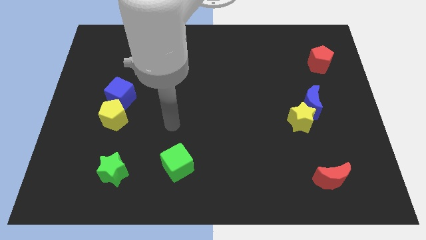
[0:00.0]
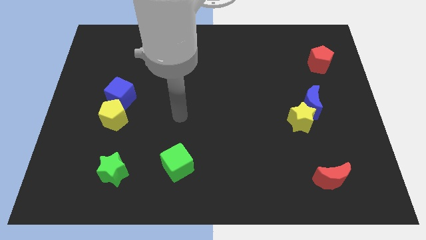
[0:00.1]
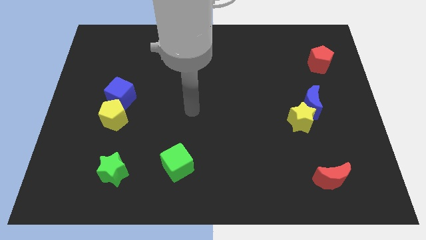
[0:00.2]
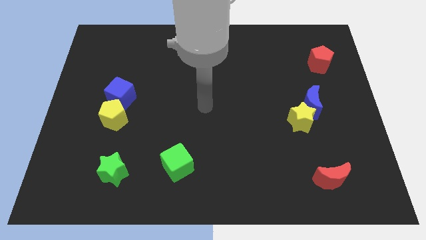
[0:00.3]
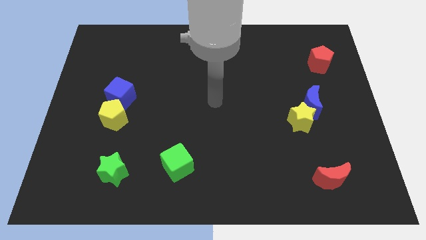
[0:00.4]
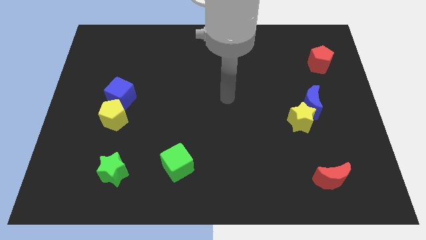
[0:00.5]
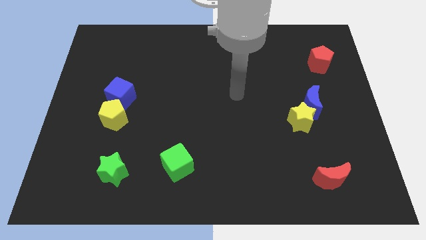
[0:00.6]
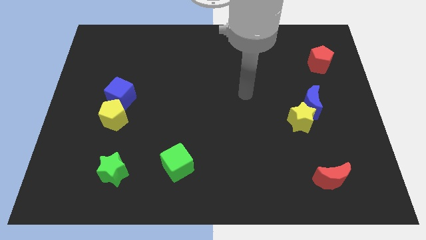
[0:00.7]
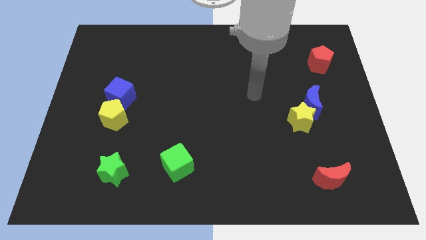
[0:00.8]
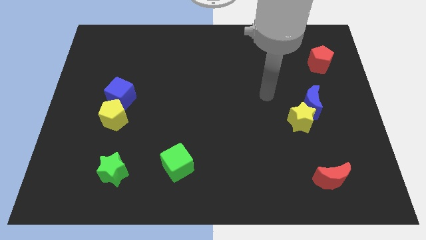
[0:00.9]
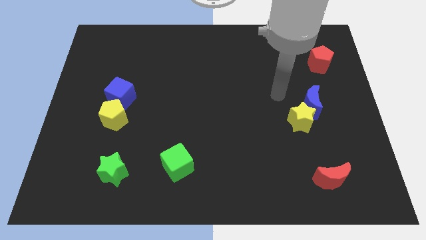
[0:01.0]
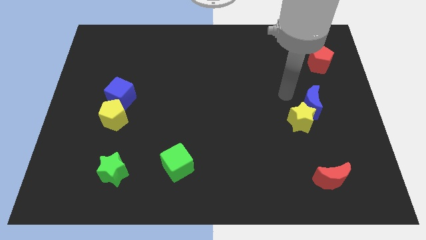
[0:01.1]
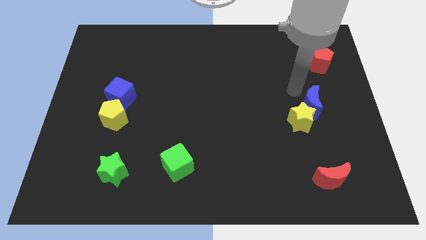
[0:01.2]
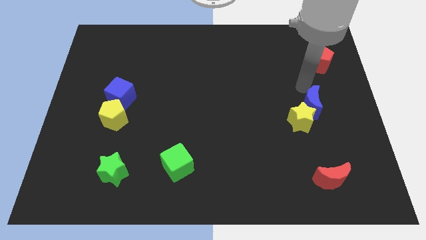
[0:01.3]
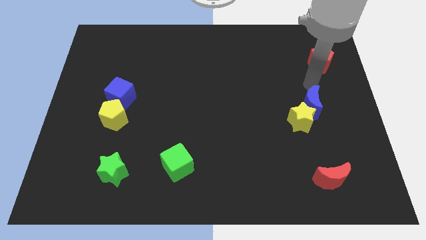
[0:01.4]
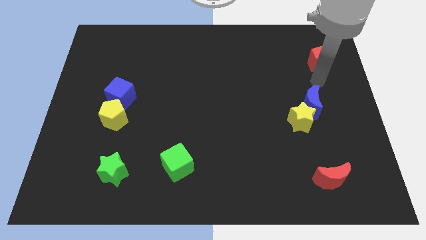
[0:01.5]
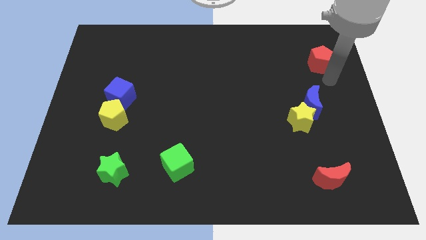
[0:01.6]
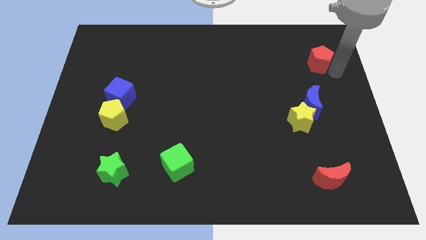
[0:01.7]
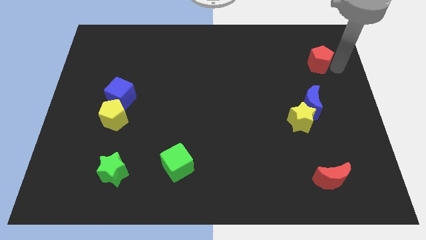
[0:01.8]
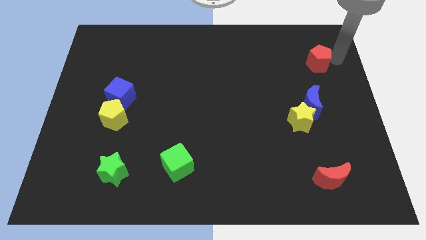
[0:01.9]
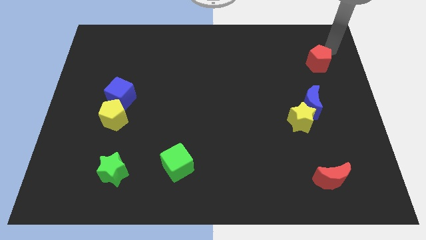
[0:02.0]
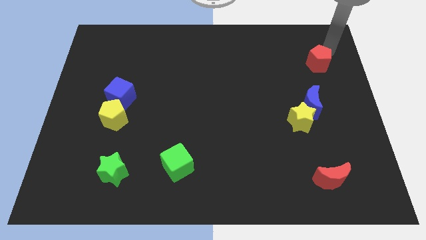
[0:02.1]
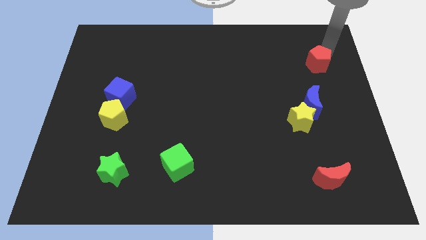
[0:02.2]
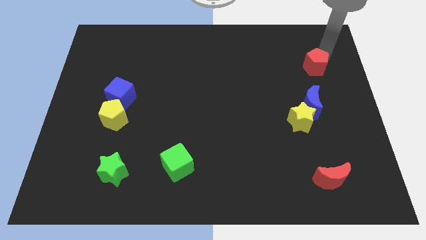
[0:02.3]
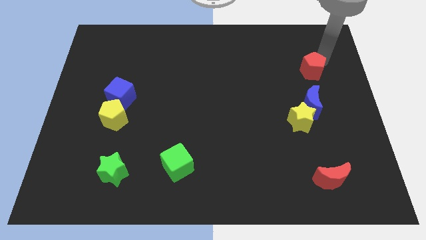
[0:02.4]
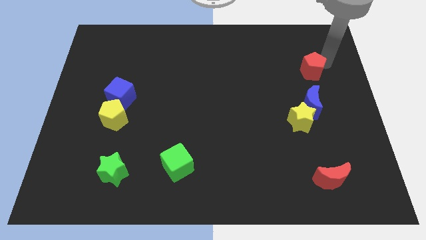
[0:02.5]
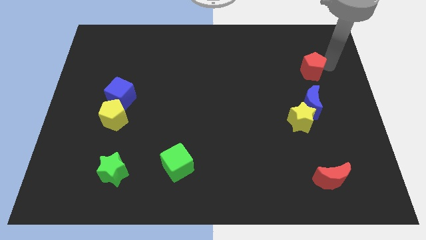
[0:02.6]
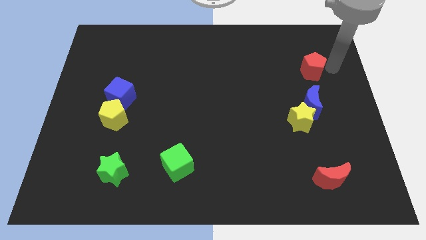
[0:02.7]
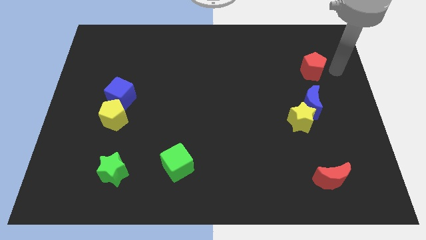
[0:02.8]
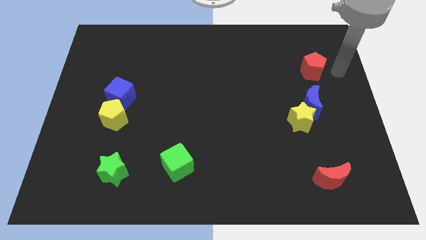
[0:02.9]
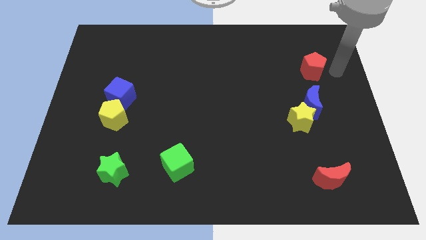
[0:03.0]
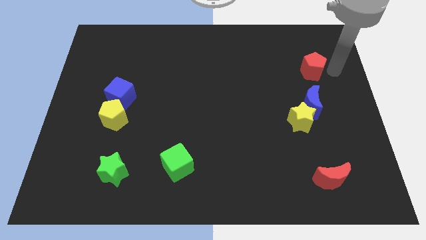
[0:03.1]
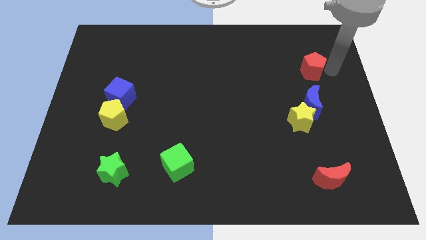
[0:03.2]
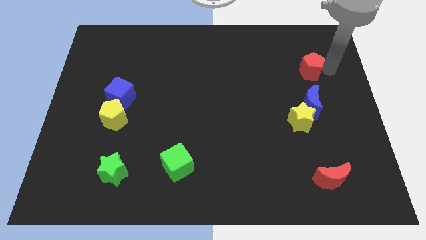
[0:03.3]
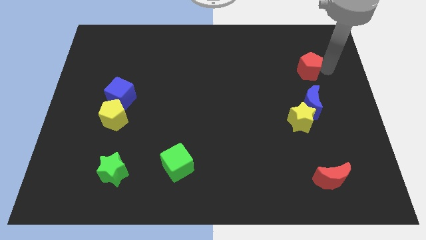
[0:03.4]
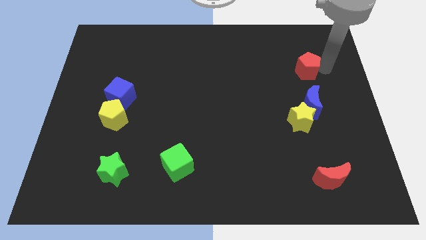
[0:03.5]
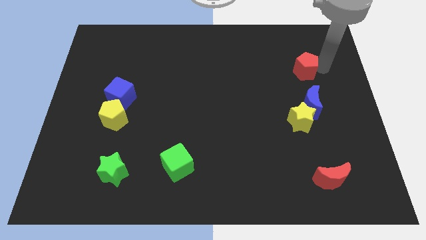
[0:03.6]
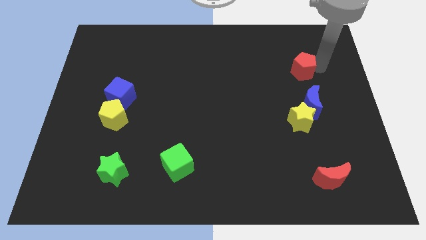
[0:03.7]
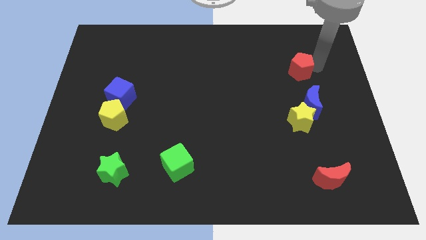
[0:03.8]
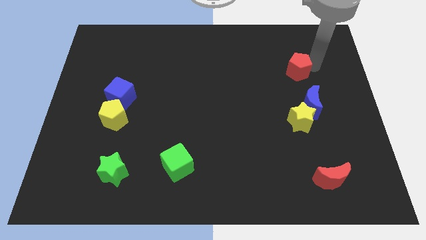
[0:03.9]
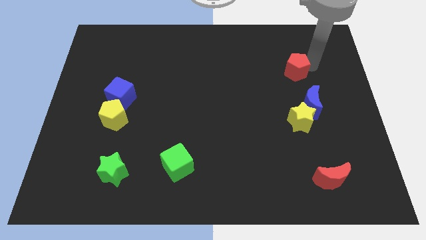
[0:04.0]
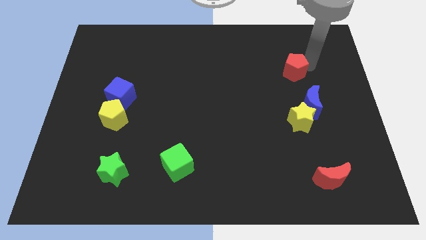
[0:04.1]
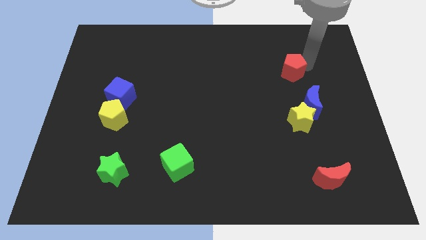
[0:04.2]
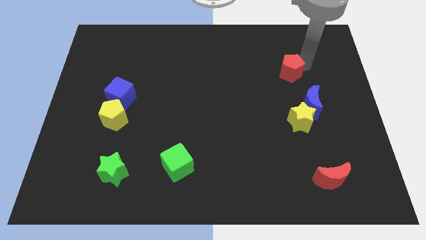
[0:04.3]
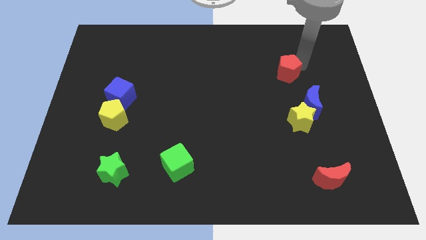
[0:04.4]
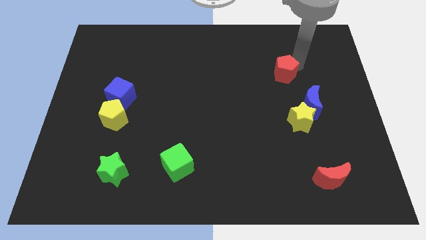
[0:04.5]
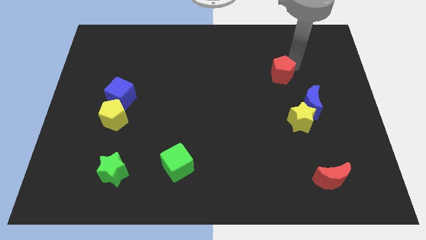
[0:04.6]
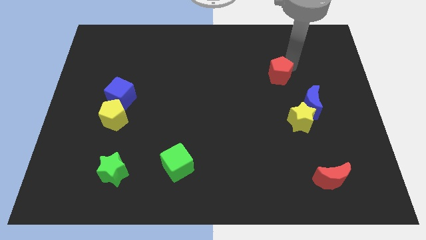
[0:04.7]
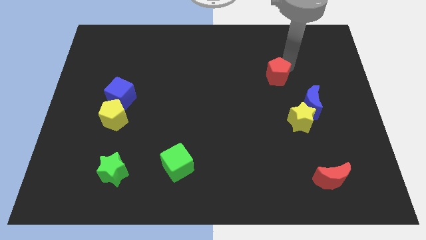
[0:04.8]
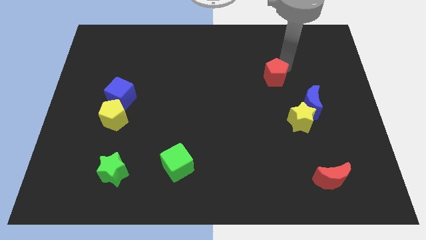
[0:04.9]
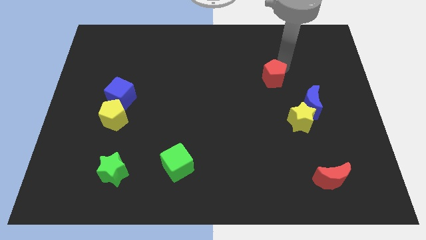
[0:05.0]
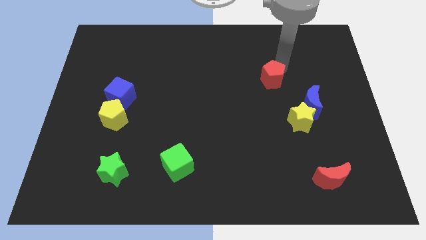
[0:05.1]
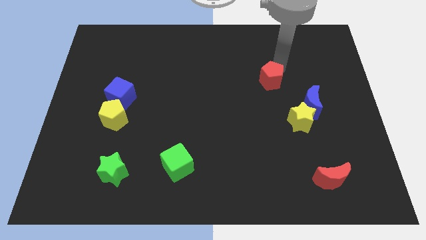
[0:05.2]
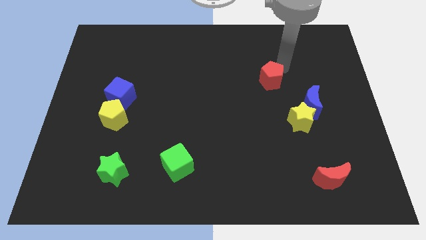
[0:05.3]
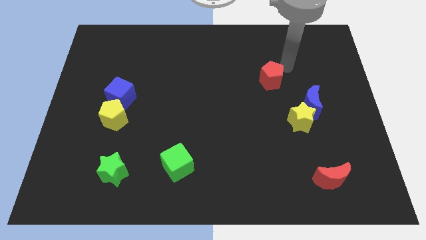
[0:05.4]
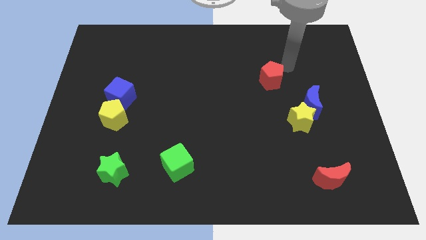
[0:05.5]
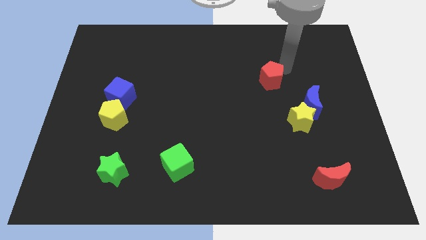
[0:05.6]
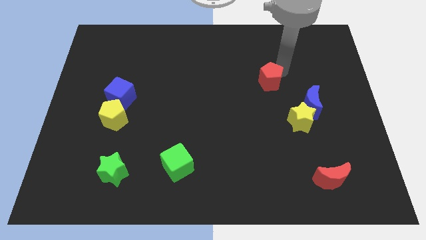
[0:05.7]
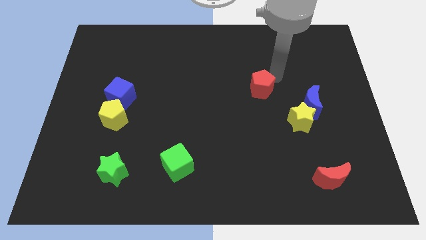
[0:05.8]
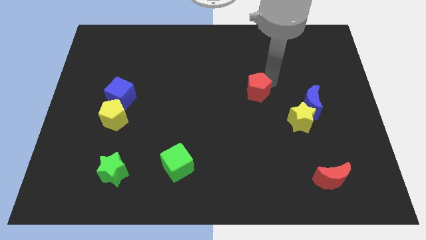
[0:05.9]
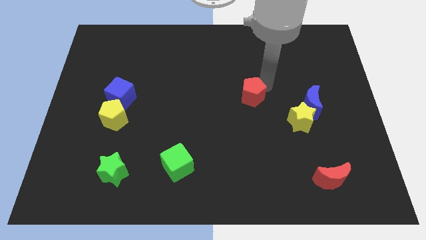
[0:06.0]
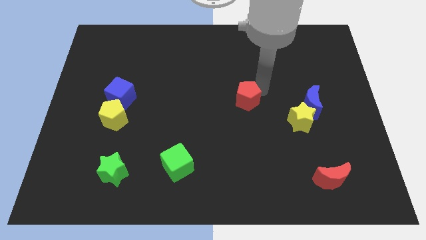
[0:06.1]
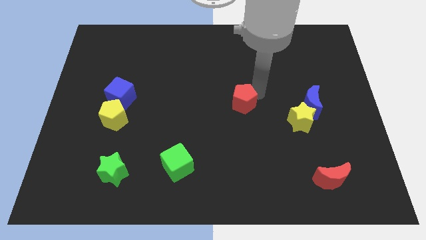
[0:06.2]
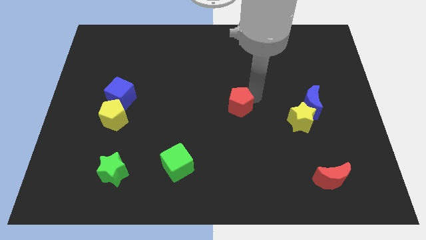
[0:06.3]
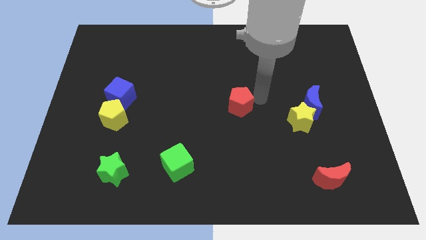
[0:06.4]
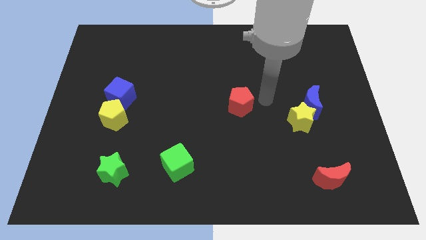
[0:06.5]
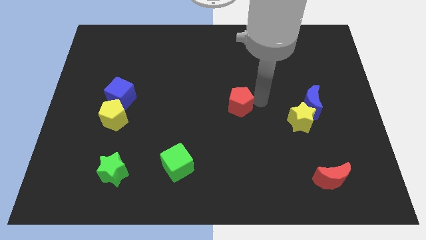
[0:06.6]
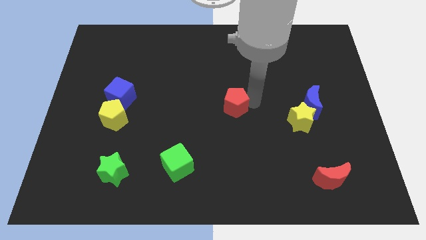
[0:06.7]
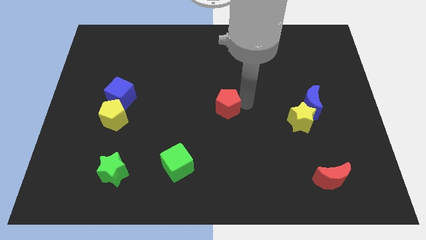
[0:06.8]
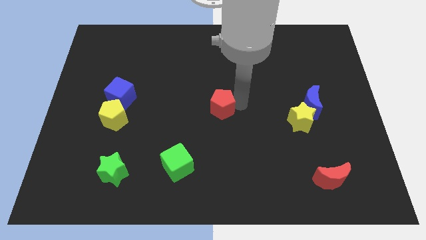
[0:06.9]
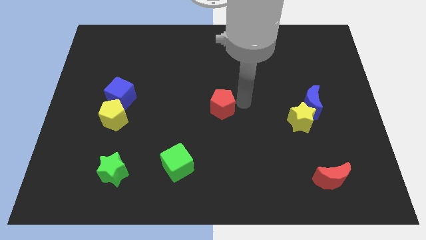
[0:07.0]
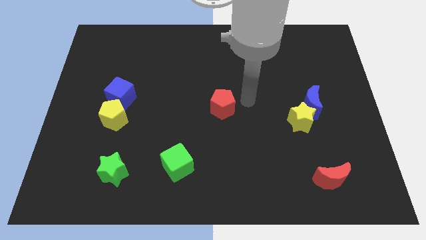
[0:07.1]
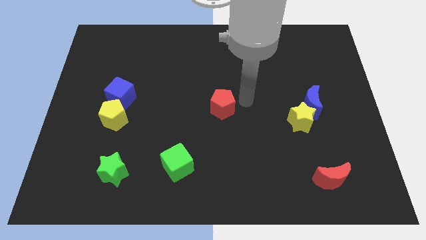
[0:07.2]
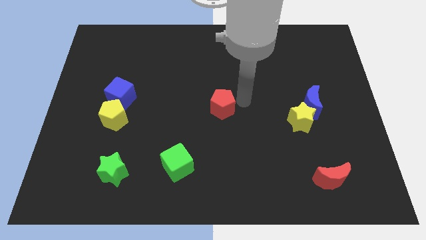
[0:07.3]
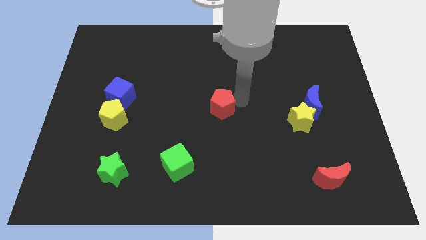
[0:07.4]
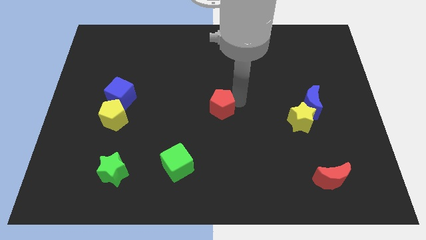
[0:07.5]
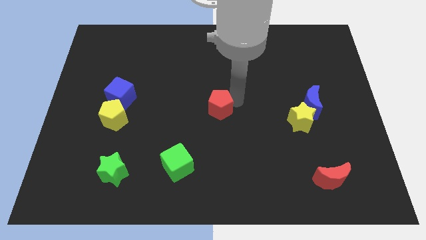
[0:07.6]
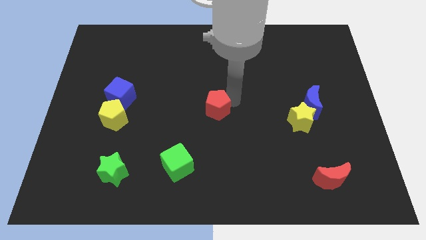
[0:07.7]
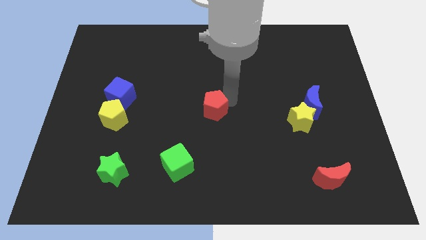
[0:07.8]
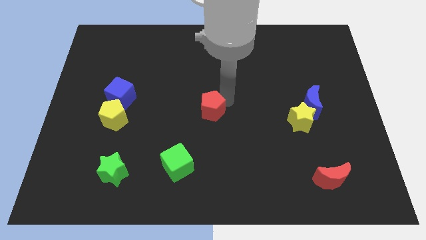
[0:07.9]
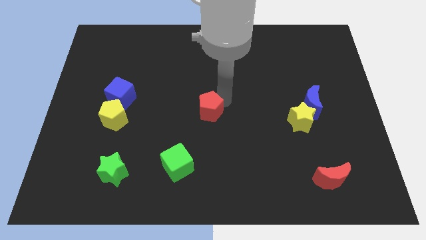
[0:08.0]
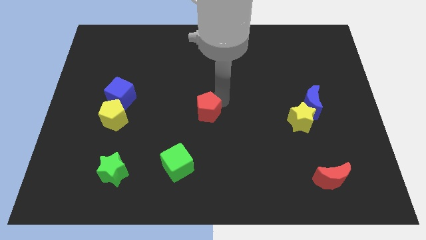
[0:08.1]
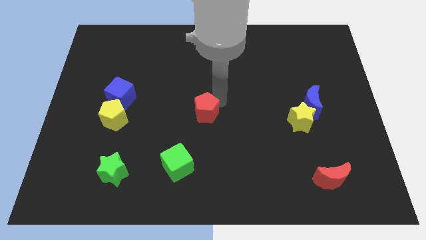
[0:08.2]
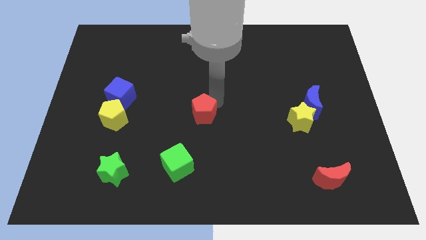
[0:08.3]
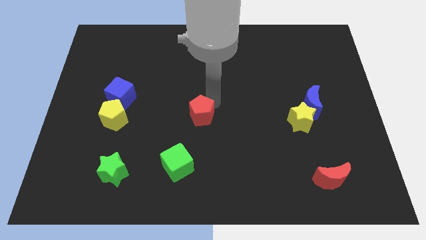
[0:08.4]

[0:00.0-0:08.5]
push the red pentagon to the top of the green cube
